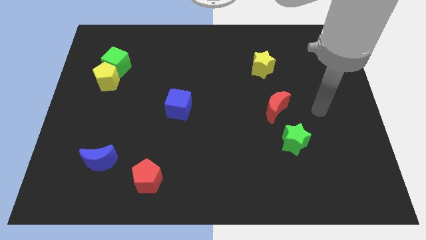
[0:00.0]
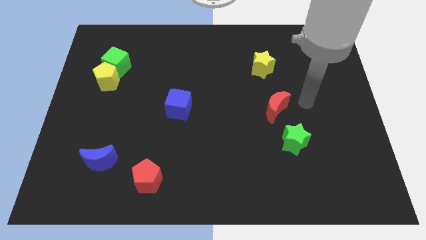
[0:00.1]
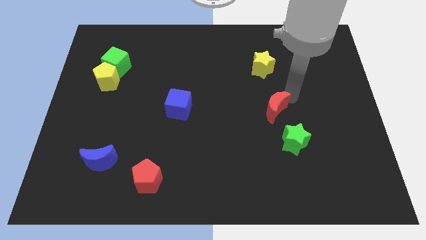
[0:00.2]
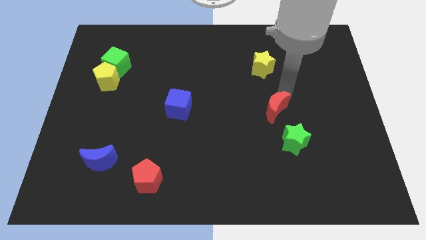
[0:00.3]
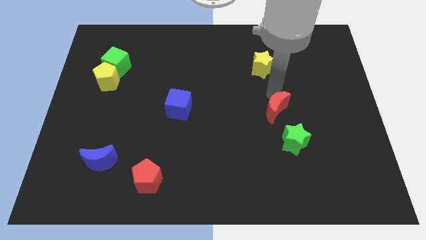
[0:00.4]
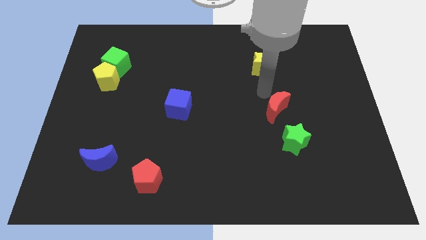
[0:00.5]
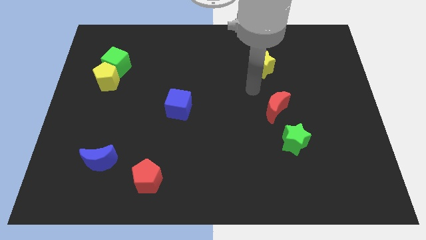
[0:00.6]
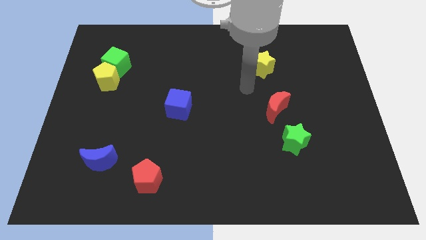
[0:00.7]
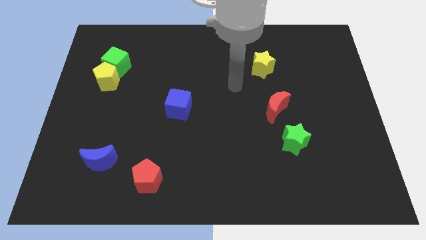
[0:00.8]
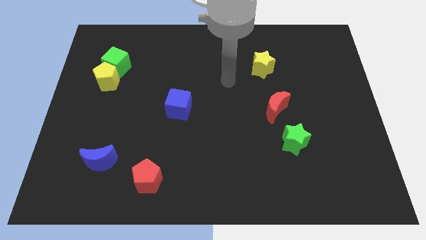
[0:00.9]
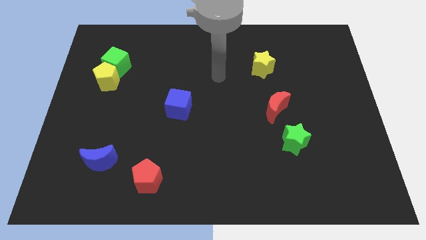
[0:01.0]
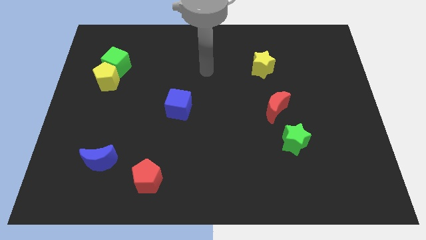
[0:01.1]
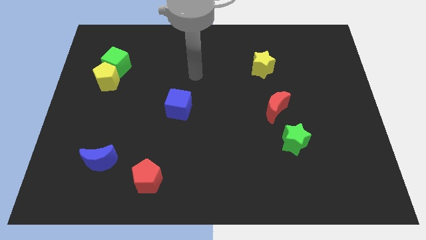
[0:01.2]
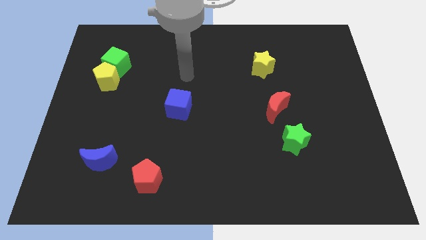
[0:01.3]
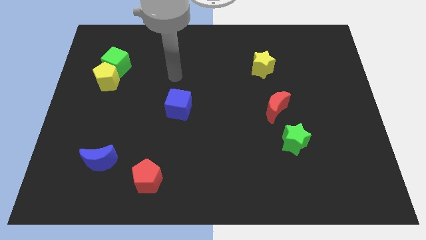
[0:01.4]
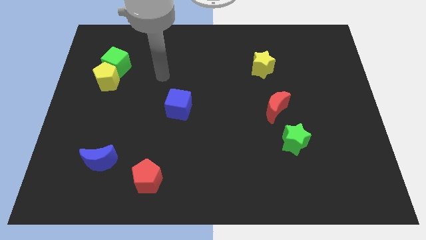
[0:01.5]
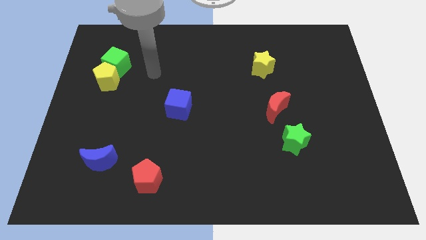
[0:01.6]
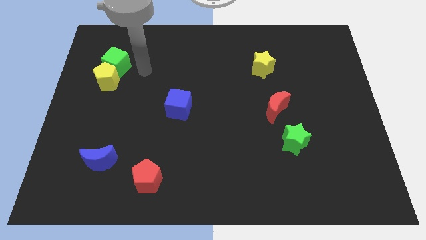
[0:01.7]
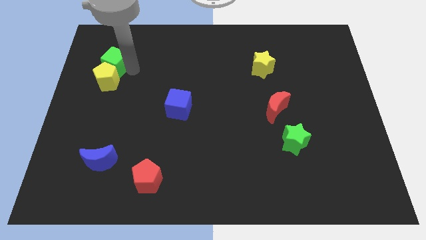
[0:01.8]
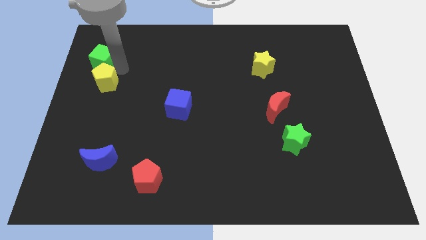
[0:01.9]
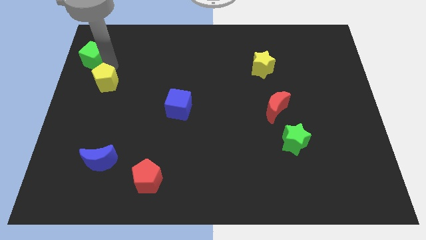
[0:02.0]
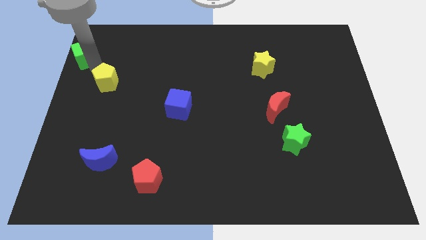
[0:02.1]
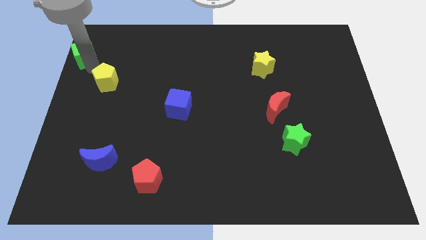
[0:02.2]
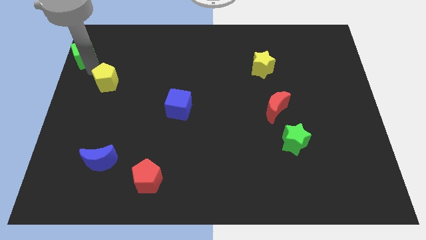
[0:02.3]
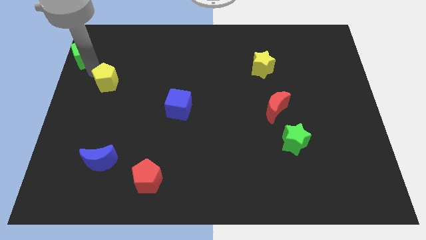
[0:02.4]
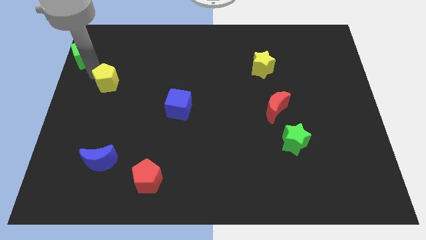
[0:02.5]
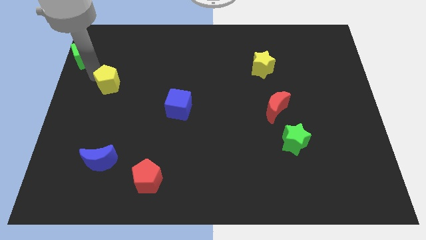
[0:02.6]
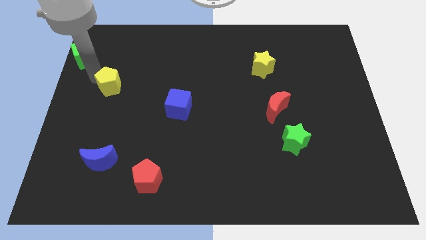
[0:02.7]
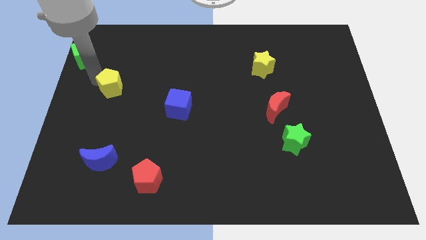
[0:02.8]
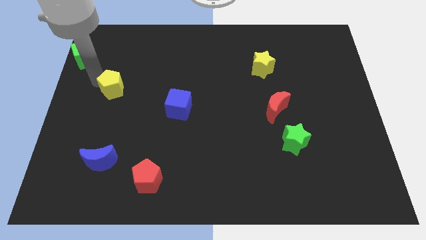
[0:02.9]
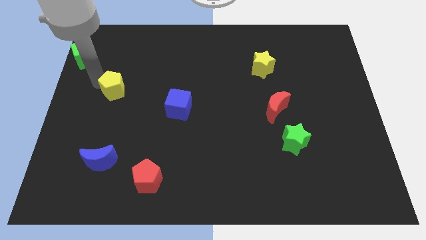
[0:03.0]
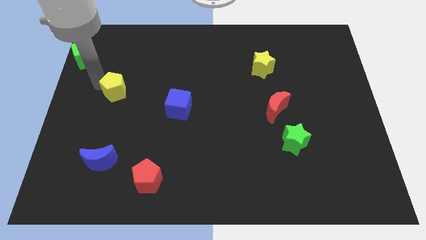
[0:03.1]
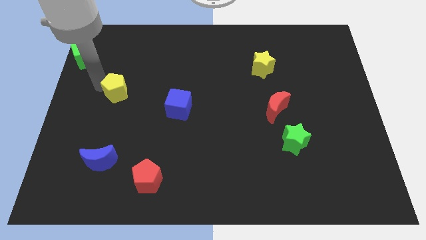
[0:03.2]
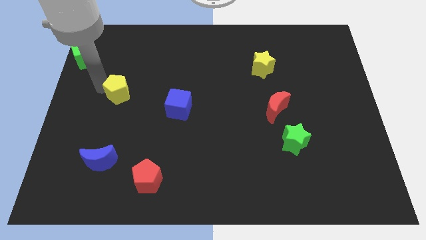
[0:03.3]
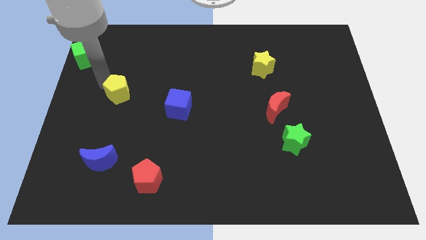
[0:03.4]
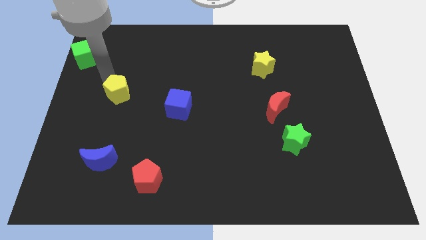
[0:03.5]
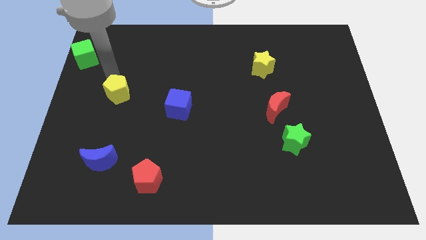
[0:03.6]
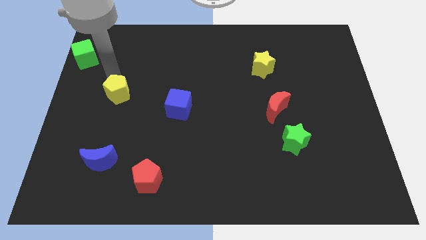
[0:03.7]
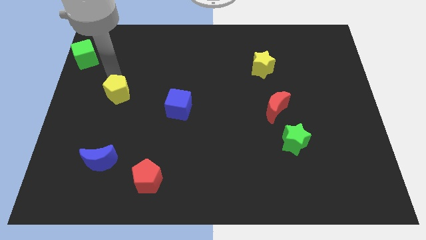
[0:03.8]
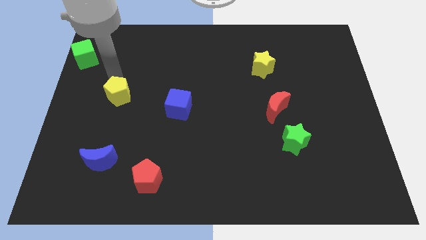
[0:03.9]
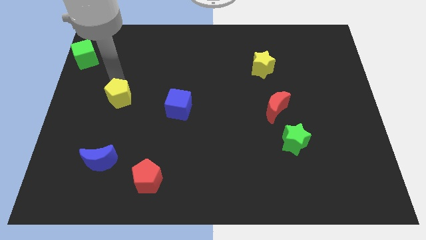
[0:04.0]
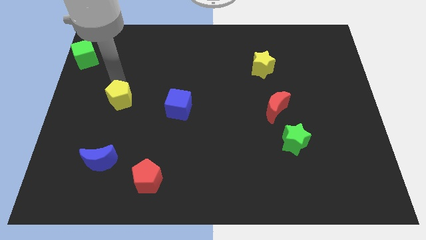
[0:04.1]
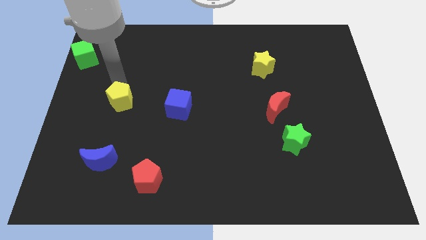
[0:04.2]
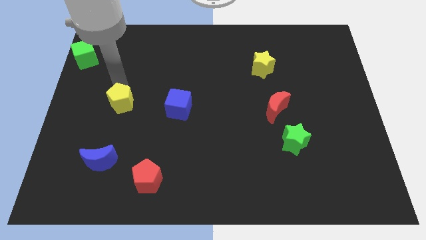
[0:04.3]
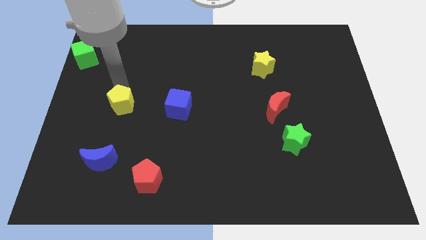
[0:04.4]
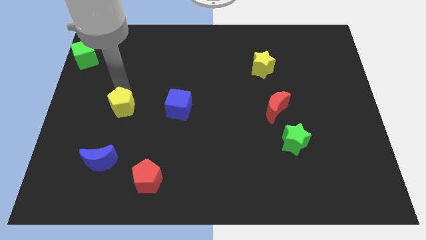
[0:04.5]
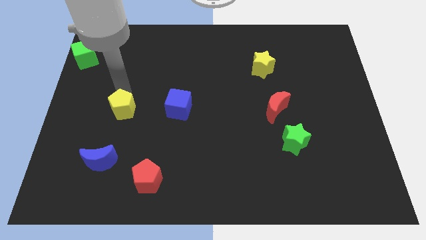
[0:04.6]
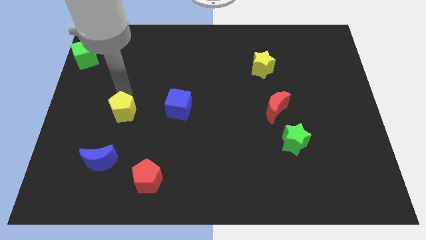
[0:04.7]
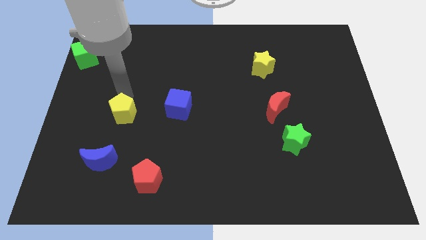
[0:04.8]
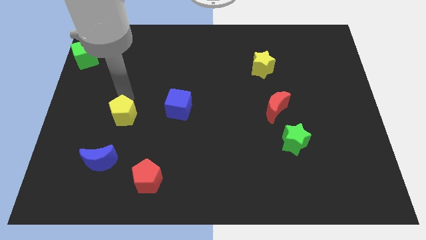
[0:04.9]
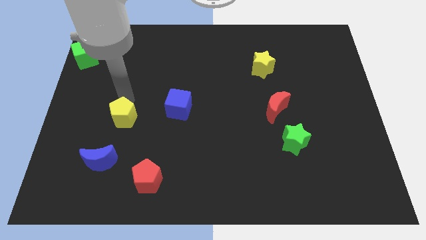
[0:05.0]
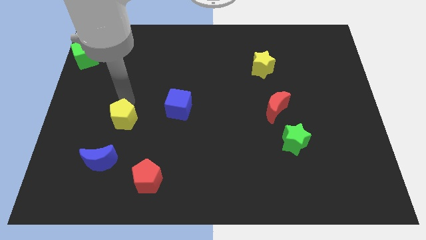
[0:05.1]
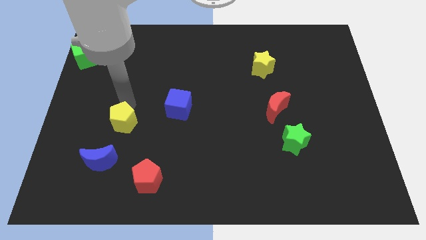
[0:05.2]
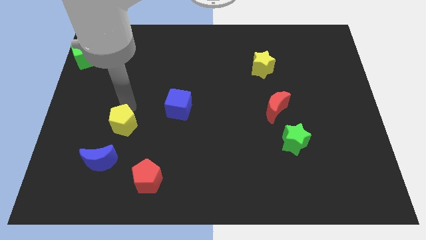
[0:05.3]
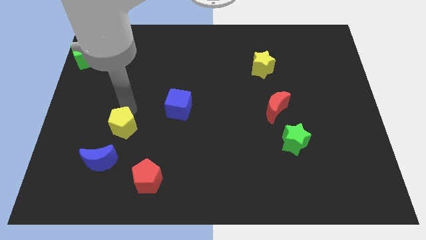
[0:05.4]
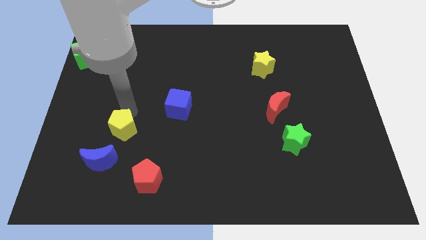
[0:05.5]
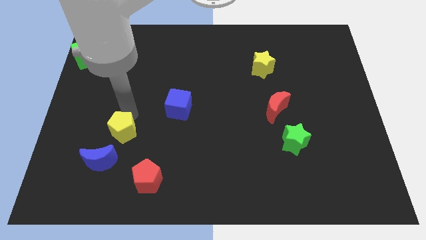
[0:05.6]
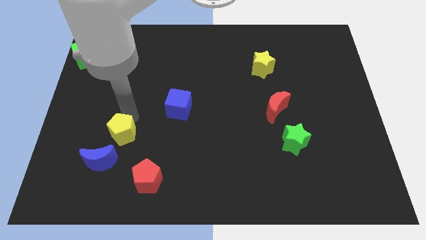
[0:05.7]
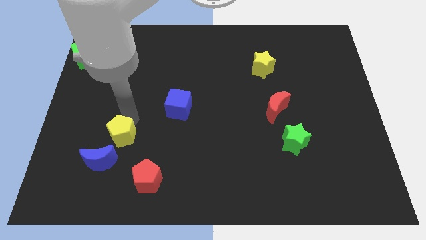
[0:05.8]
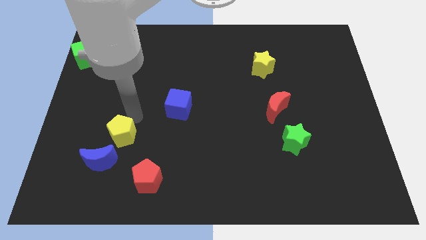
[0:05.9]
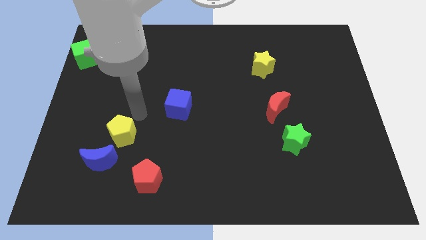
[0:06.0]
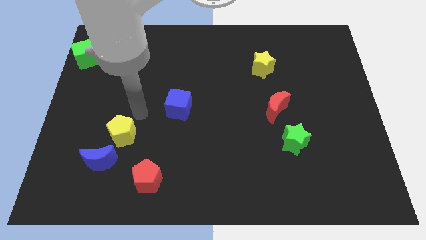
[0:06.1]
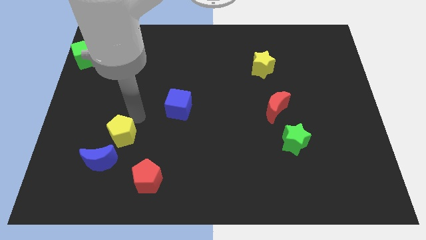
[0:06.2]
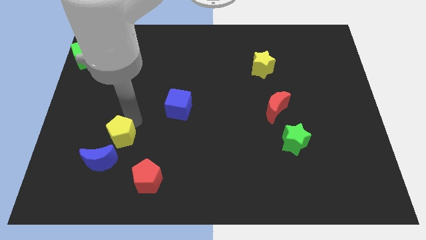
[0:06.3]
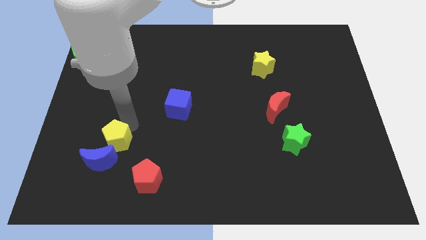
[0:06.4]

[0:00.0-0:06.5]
slide the yellow pentagon towards the blue moon

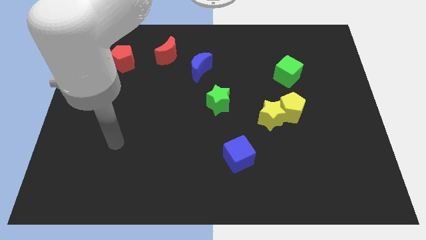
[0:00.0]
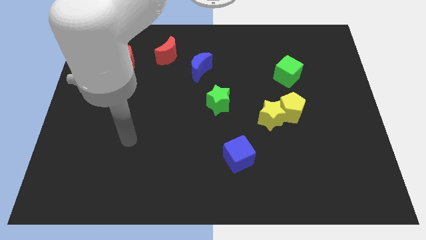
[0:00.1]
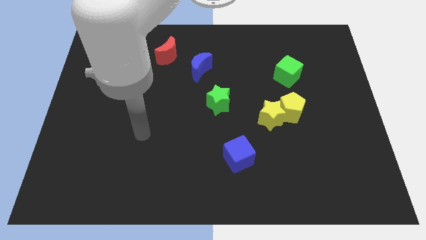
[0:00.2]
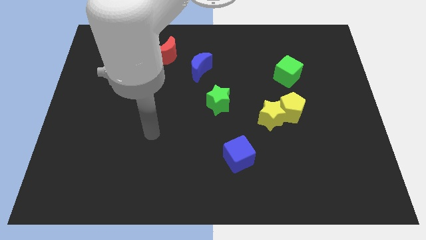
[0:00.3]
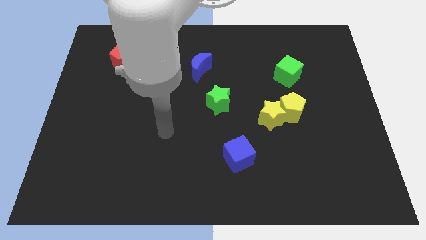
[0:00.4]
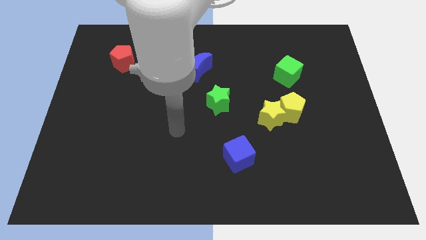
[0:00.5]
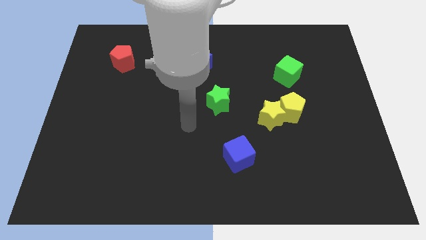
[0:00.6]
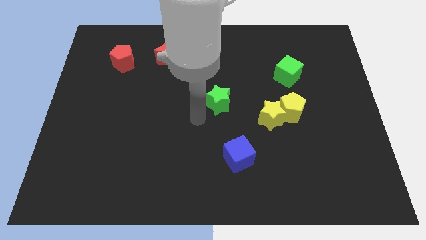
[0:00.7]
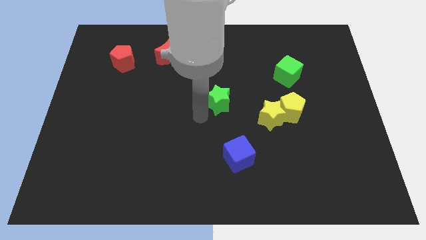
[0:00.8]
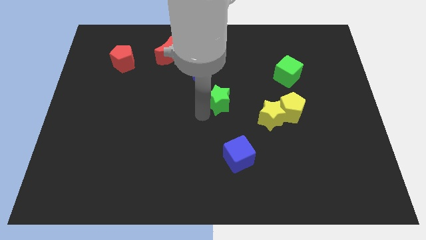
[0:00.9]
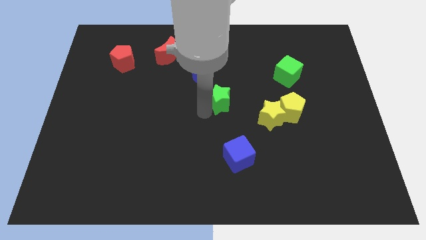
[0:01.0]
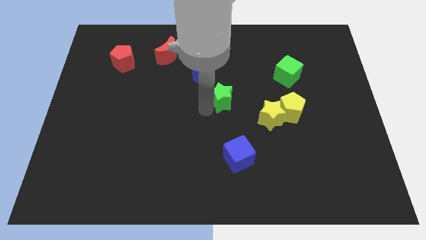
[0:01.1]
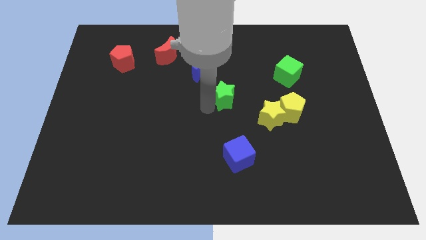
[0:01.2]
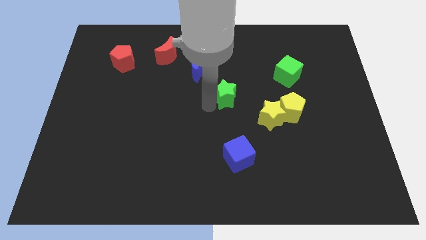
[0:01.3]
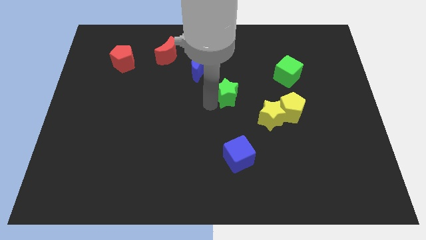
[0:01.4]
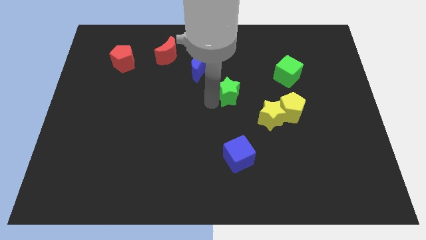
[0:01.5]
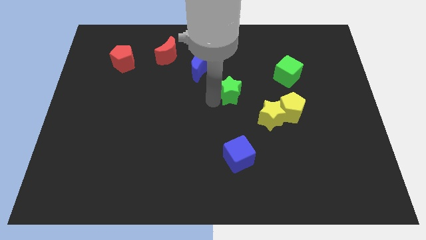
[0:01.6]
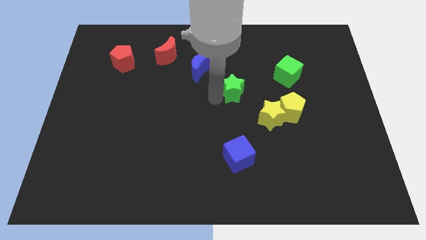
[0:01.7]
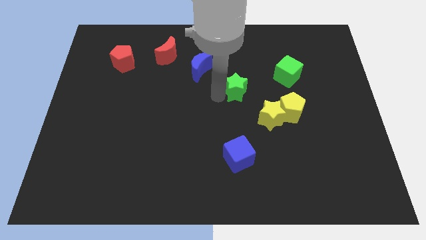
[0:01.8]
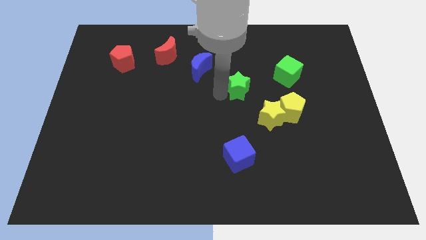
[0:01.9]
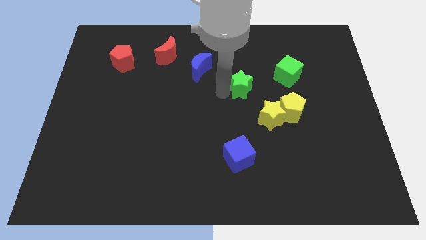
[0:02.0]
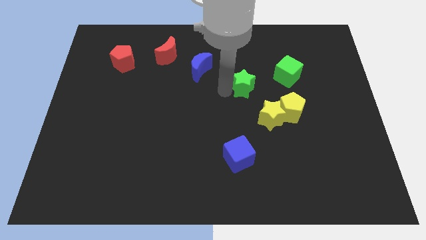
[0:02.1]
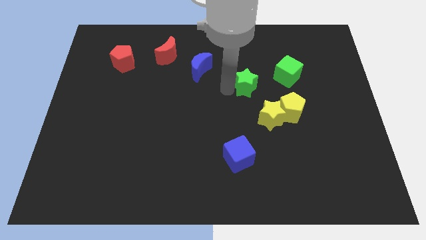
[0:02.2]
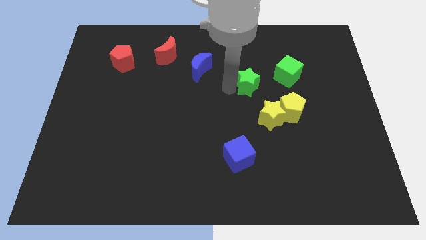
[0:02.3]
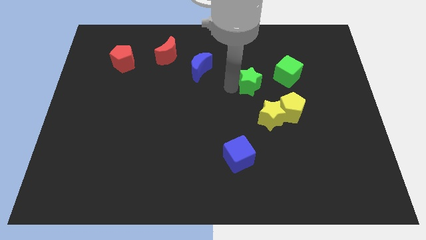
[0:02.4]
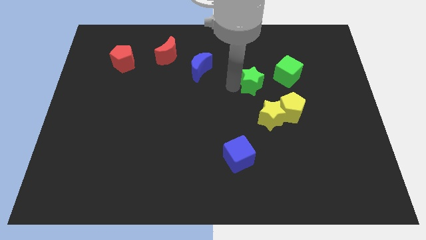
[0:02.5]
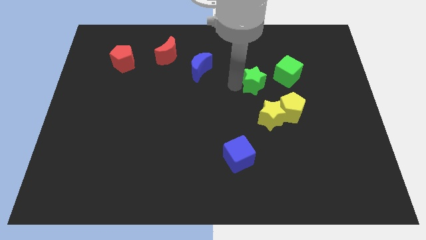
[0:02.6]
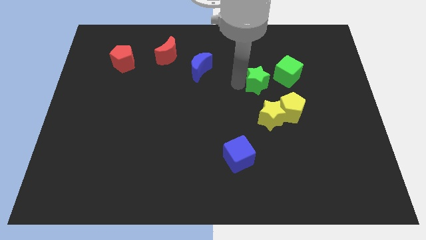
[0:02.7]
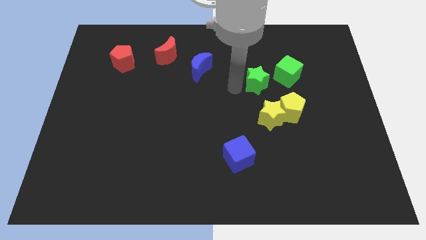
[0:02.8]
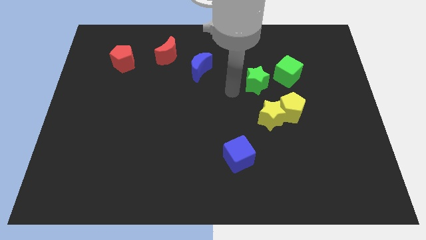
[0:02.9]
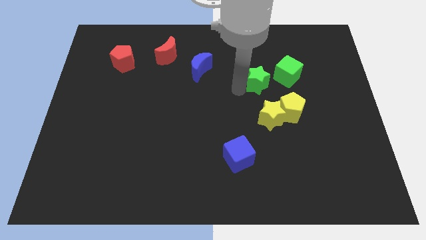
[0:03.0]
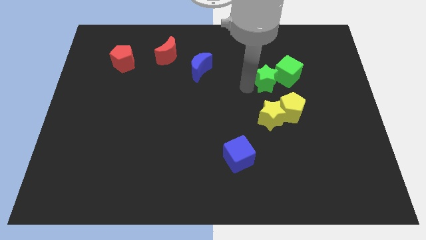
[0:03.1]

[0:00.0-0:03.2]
move the green star towards the green cube
